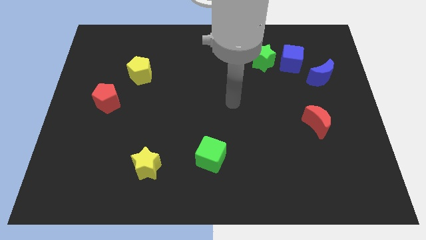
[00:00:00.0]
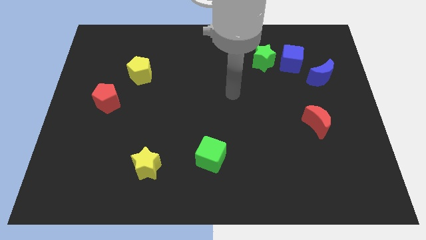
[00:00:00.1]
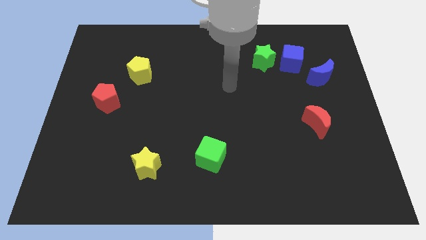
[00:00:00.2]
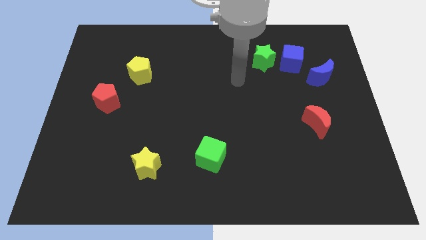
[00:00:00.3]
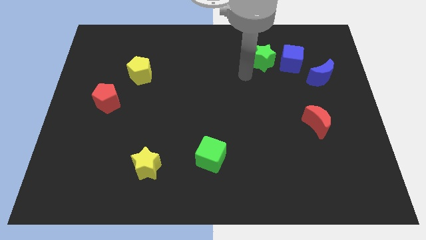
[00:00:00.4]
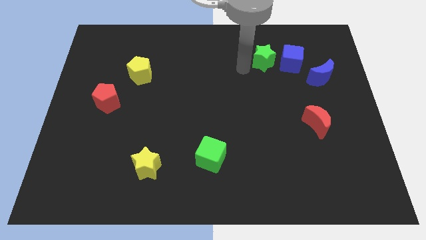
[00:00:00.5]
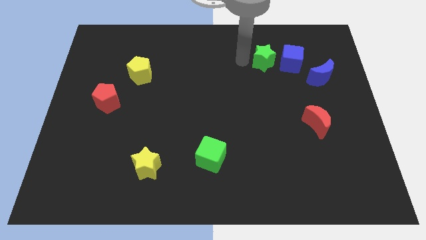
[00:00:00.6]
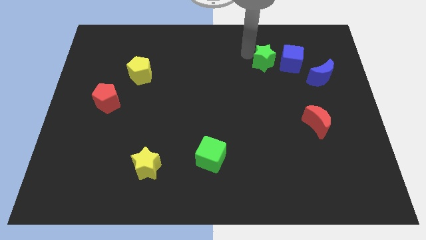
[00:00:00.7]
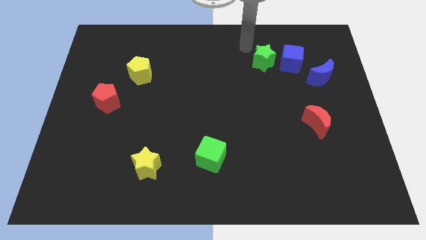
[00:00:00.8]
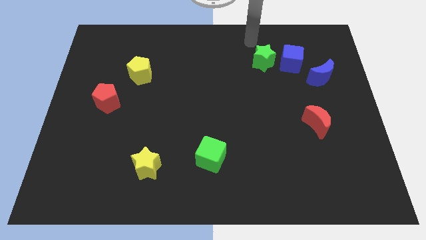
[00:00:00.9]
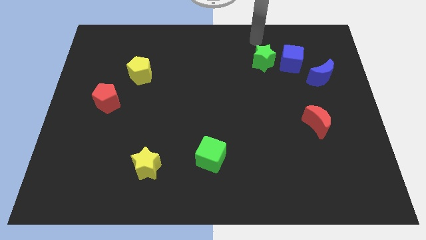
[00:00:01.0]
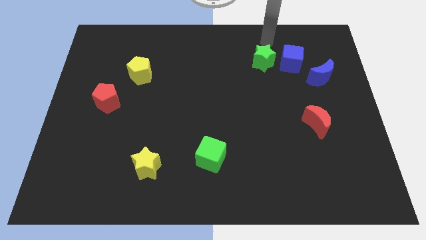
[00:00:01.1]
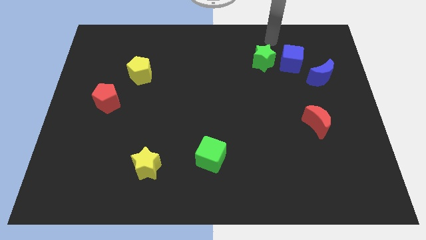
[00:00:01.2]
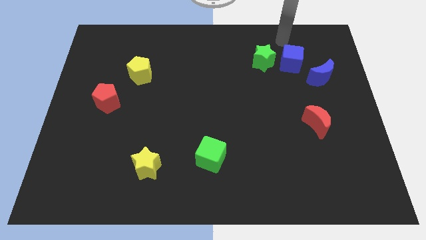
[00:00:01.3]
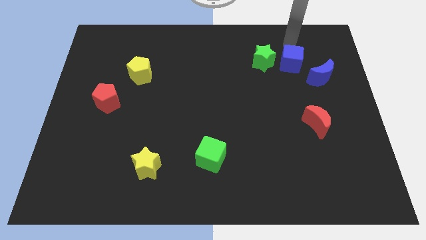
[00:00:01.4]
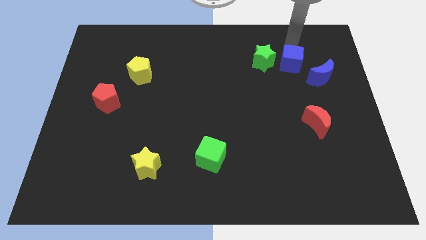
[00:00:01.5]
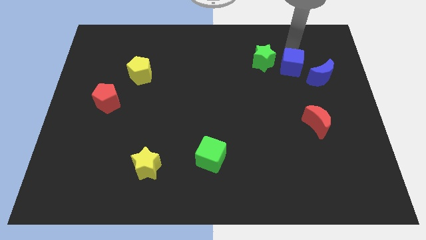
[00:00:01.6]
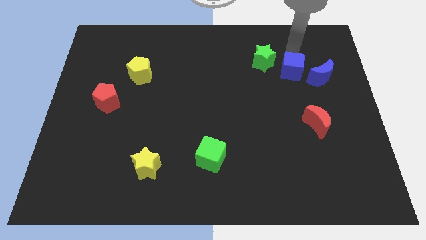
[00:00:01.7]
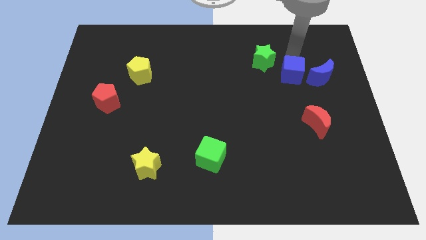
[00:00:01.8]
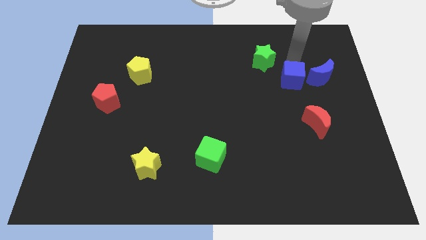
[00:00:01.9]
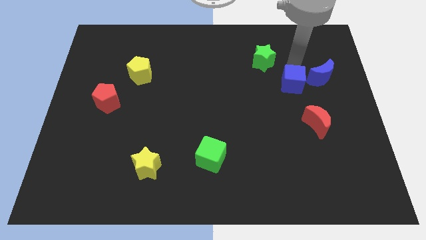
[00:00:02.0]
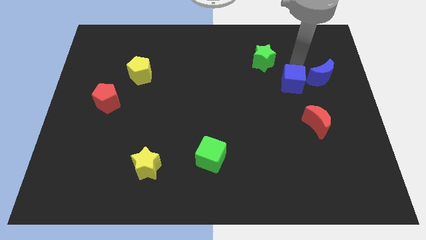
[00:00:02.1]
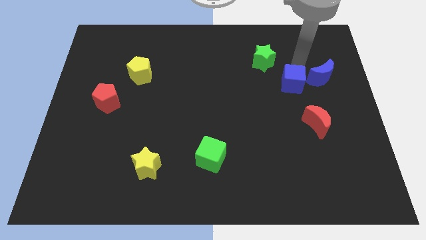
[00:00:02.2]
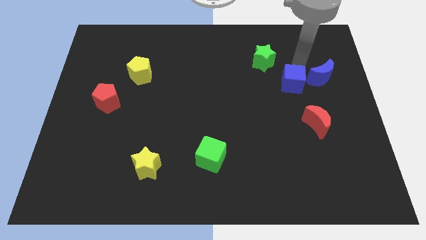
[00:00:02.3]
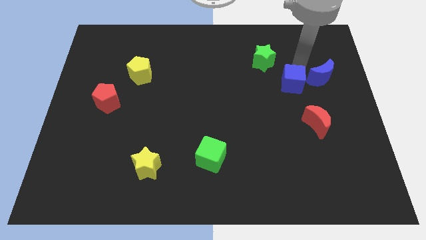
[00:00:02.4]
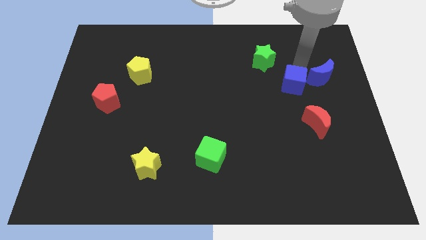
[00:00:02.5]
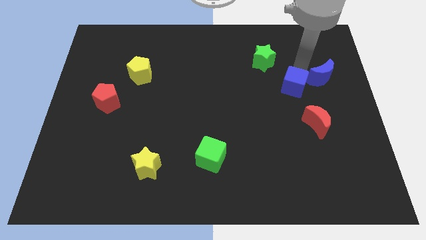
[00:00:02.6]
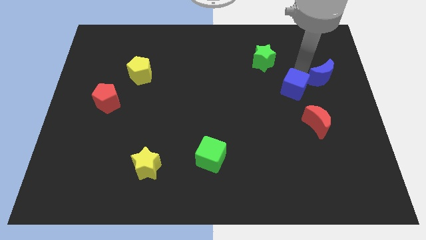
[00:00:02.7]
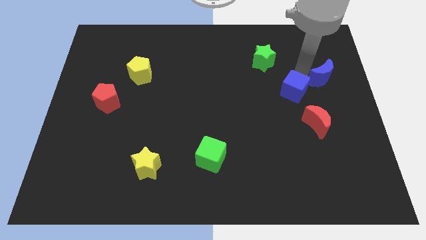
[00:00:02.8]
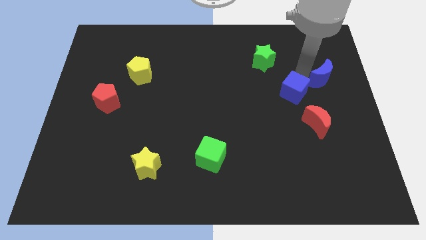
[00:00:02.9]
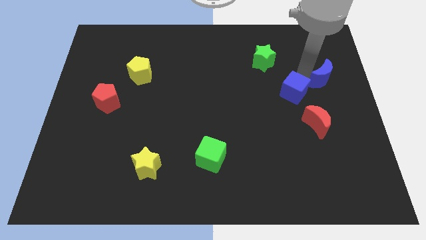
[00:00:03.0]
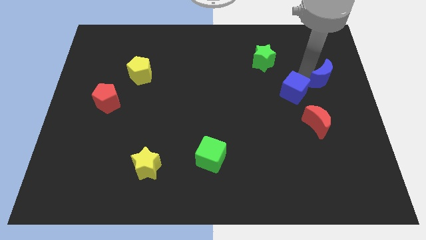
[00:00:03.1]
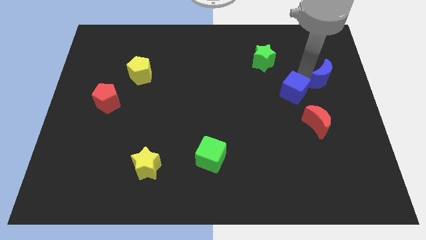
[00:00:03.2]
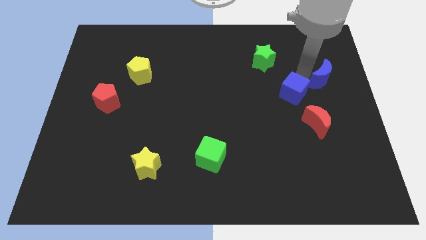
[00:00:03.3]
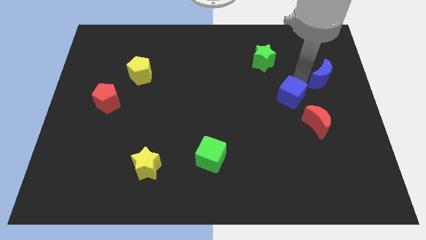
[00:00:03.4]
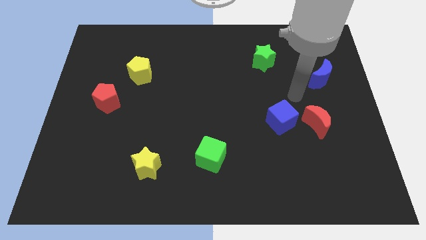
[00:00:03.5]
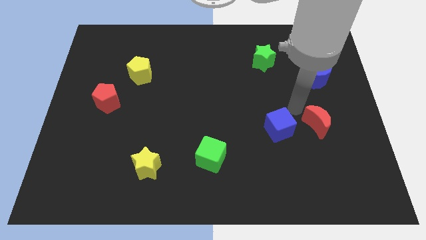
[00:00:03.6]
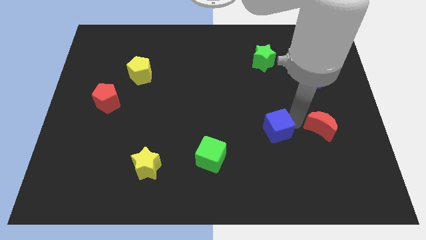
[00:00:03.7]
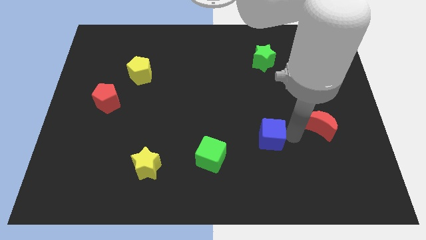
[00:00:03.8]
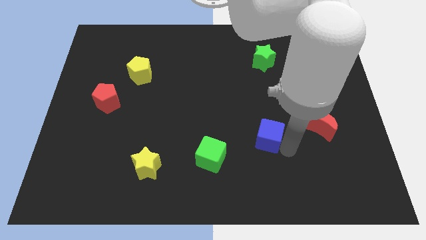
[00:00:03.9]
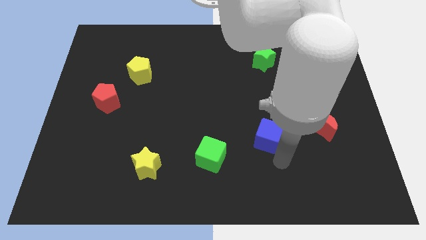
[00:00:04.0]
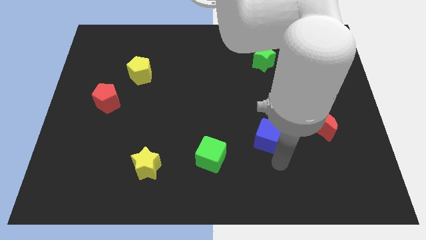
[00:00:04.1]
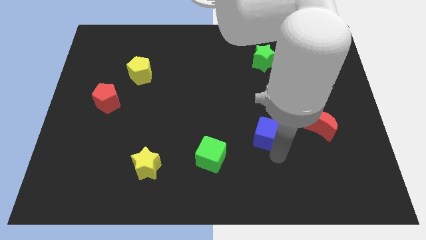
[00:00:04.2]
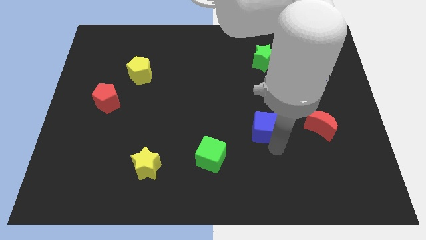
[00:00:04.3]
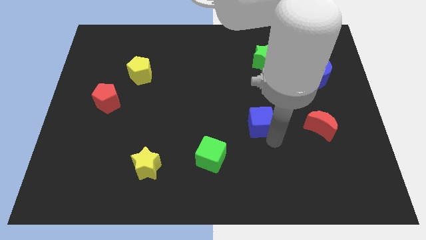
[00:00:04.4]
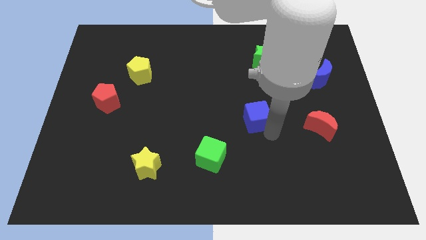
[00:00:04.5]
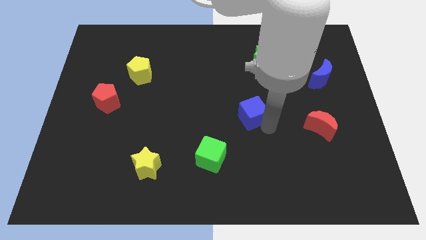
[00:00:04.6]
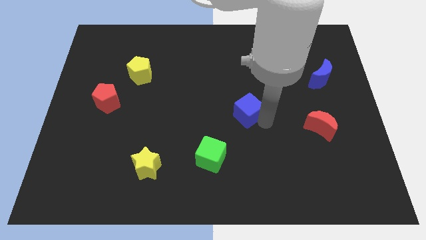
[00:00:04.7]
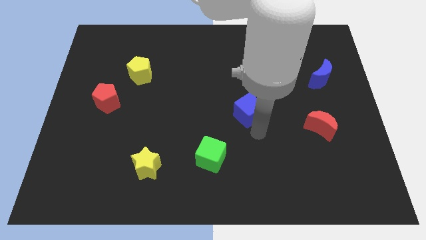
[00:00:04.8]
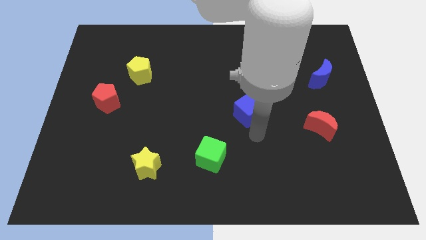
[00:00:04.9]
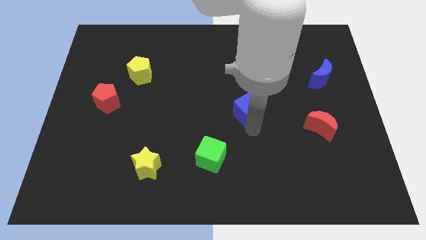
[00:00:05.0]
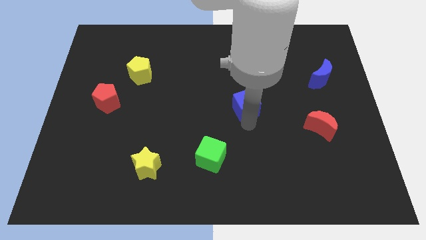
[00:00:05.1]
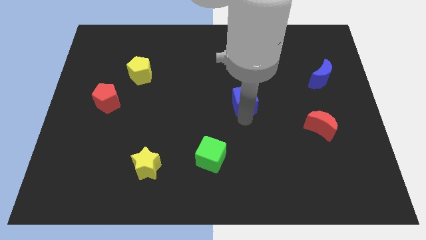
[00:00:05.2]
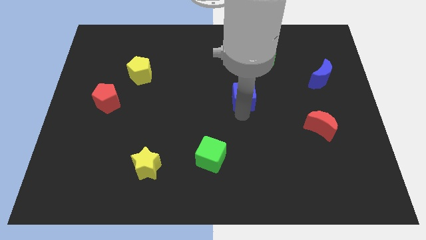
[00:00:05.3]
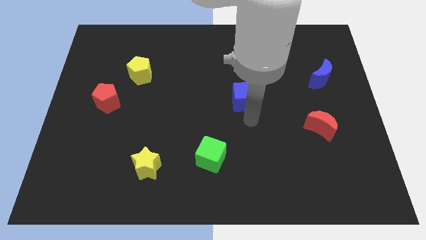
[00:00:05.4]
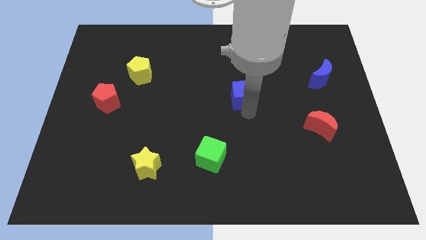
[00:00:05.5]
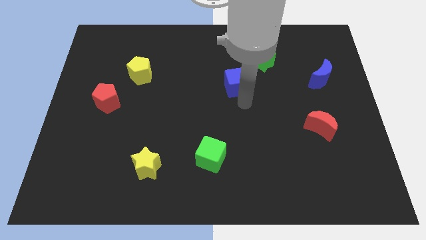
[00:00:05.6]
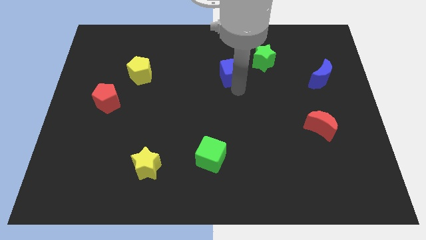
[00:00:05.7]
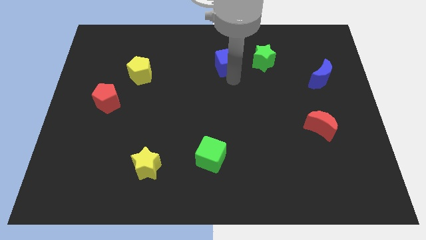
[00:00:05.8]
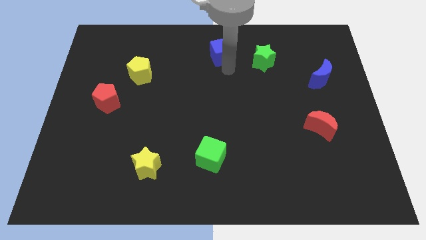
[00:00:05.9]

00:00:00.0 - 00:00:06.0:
move the blue cube to the towards your base

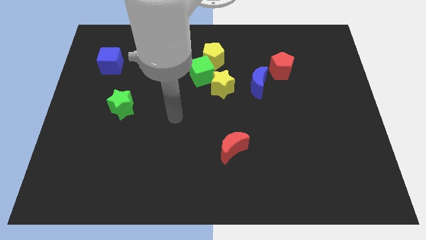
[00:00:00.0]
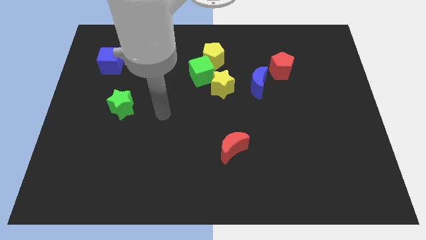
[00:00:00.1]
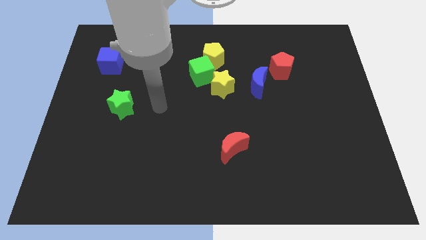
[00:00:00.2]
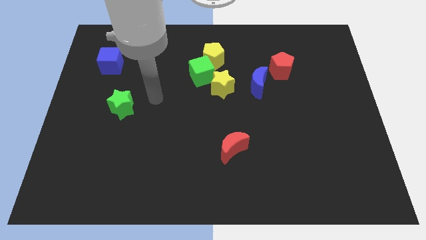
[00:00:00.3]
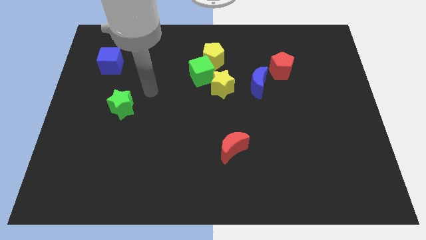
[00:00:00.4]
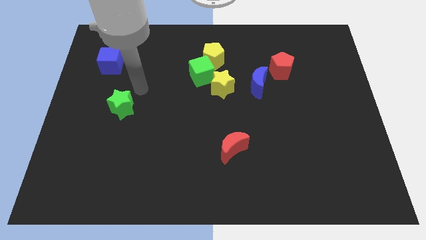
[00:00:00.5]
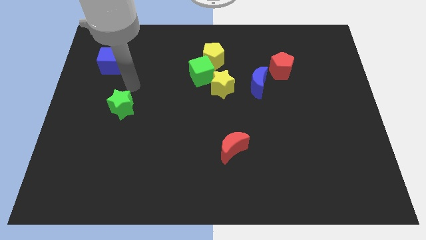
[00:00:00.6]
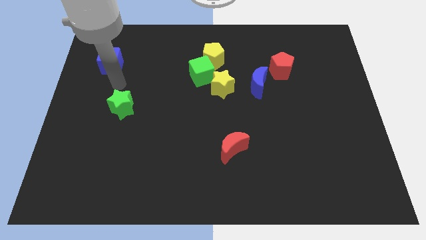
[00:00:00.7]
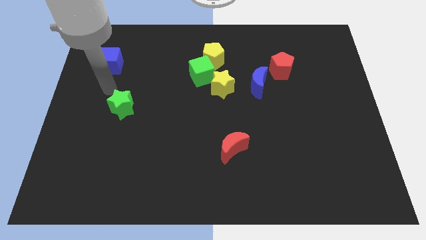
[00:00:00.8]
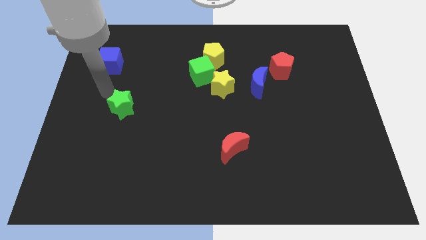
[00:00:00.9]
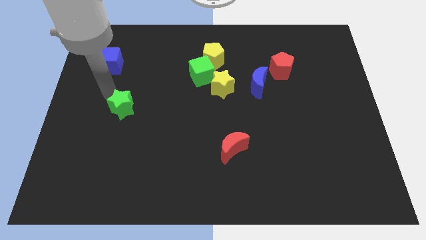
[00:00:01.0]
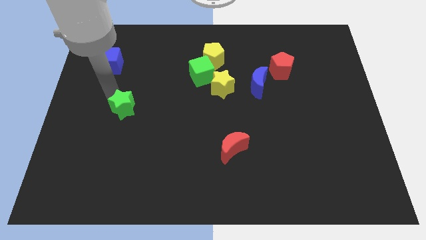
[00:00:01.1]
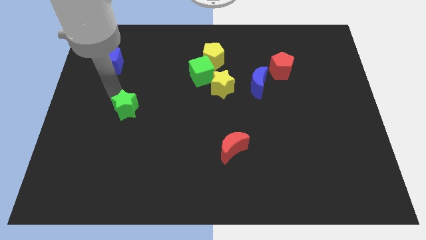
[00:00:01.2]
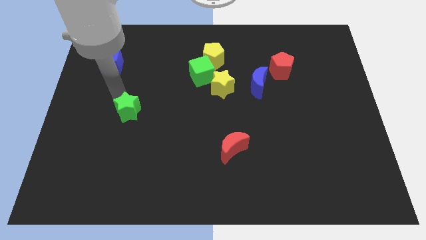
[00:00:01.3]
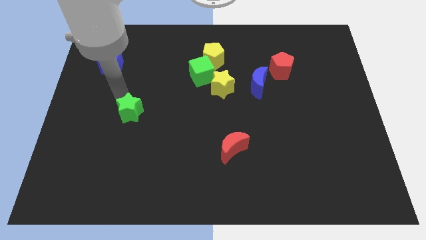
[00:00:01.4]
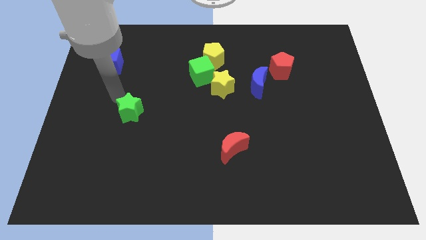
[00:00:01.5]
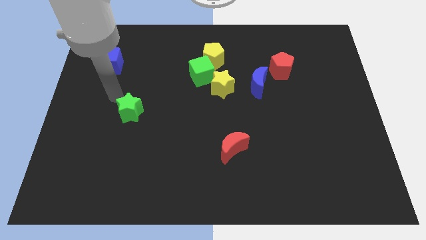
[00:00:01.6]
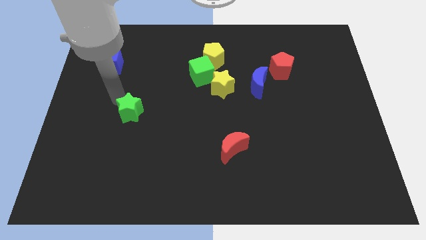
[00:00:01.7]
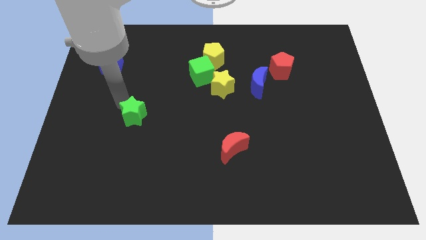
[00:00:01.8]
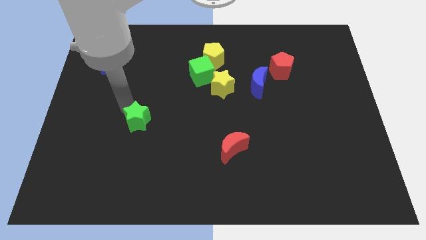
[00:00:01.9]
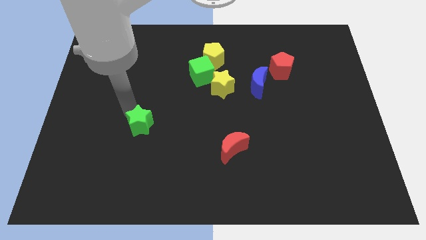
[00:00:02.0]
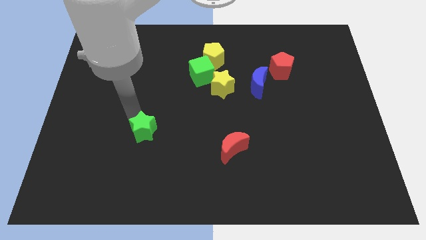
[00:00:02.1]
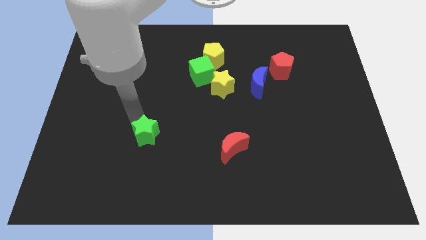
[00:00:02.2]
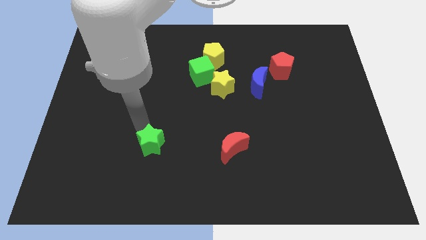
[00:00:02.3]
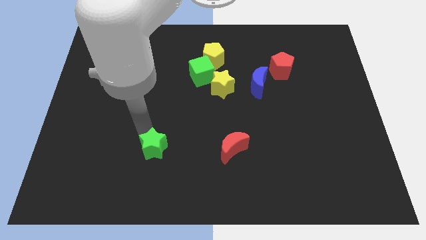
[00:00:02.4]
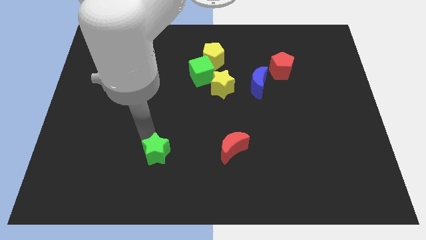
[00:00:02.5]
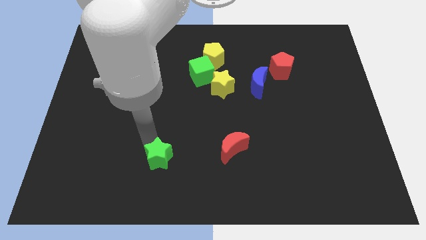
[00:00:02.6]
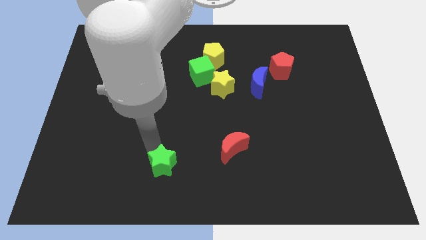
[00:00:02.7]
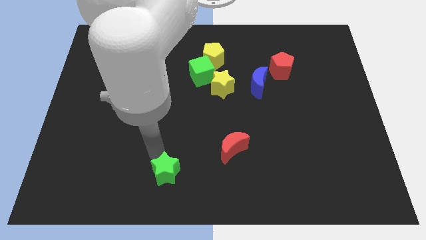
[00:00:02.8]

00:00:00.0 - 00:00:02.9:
put the green star to the bottom
